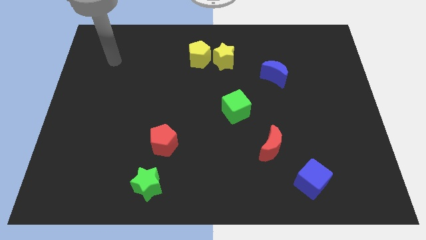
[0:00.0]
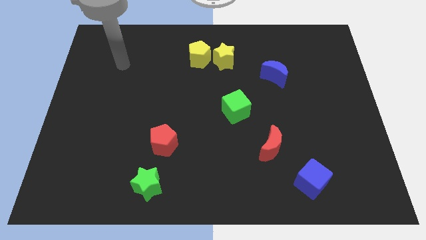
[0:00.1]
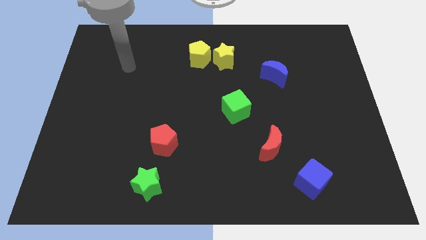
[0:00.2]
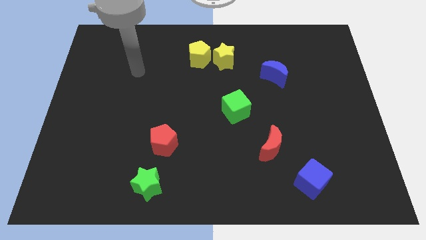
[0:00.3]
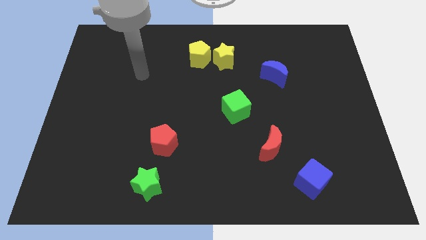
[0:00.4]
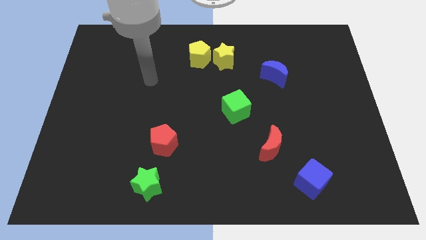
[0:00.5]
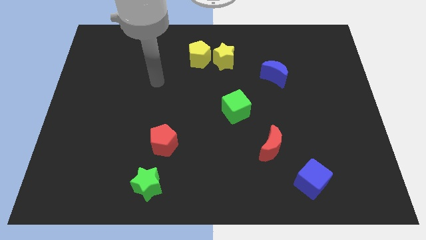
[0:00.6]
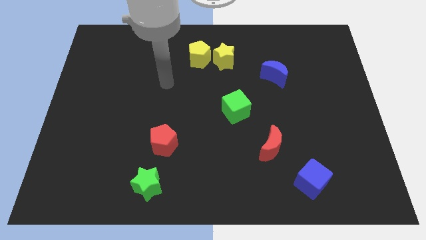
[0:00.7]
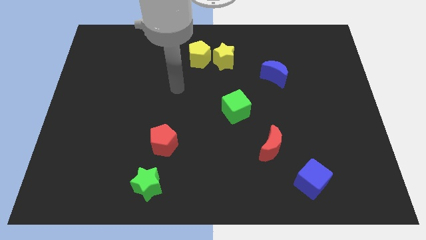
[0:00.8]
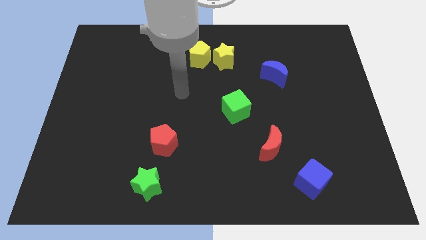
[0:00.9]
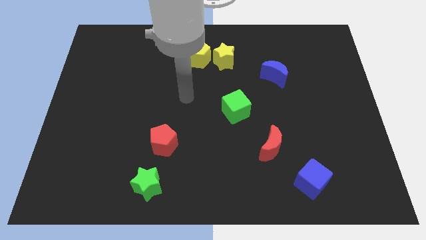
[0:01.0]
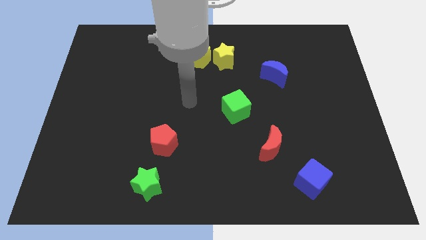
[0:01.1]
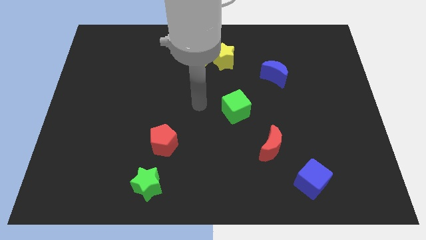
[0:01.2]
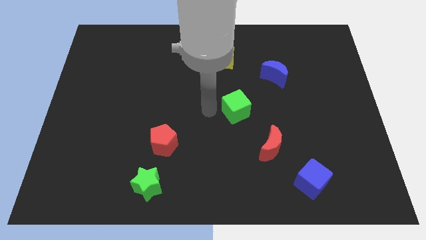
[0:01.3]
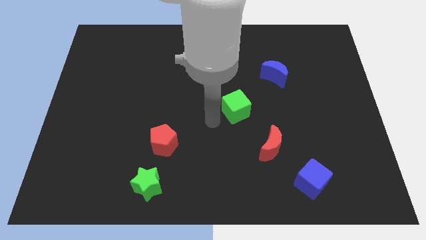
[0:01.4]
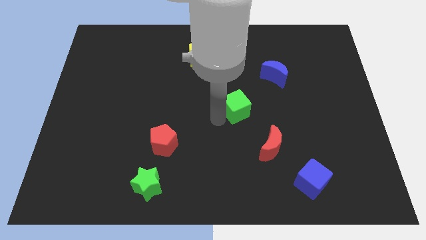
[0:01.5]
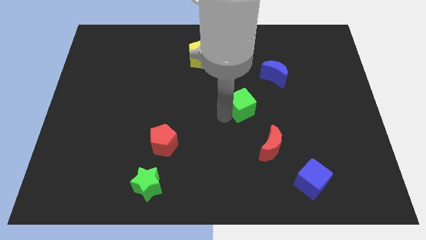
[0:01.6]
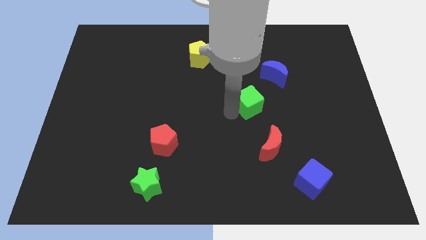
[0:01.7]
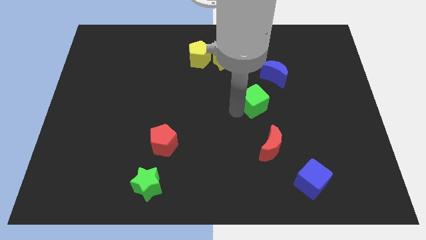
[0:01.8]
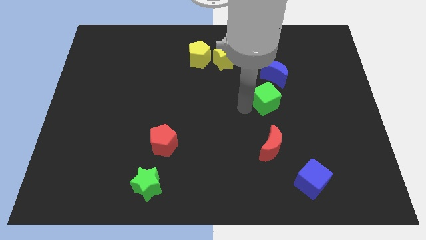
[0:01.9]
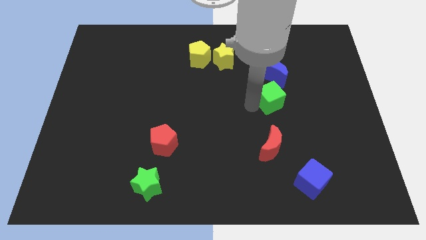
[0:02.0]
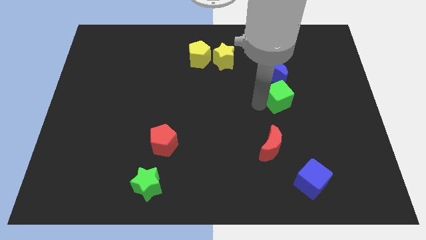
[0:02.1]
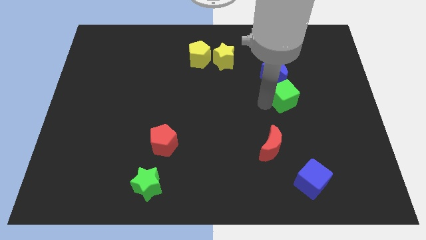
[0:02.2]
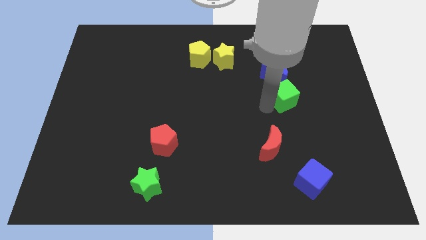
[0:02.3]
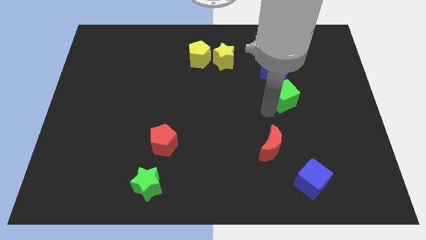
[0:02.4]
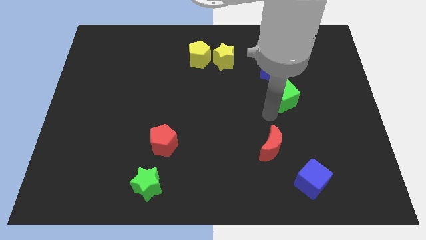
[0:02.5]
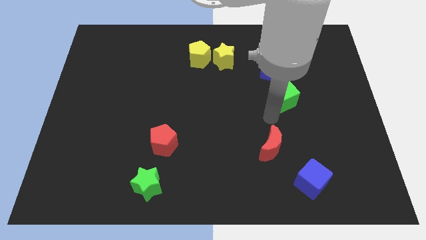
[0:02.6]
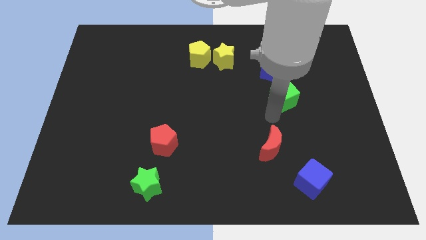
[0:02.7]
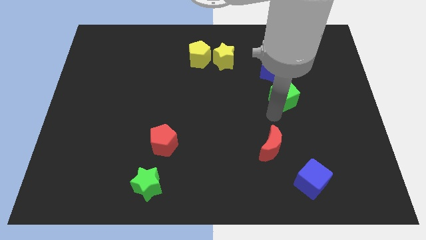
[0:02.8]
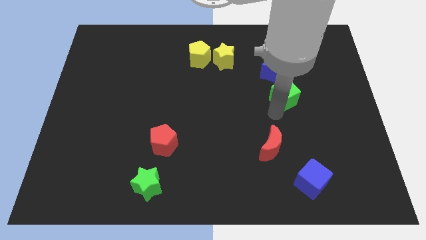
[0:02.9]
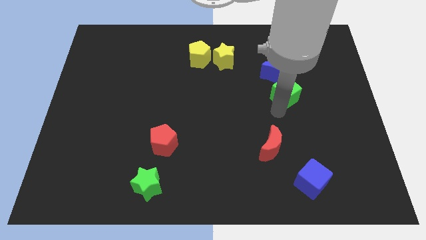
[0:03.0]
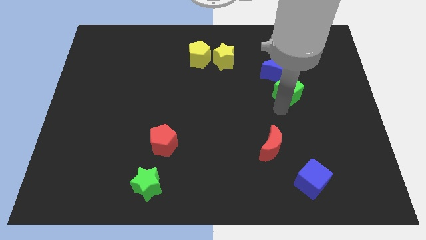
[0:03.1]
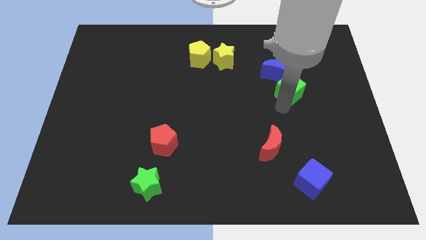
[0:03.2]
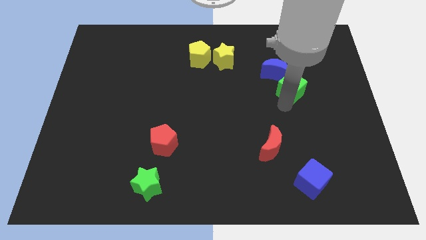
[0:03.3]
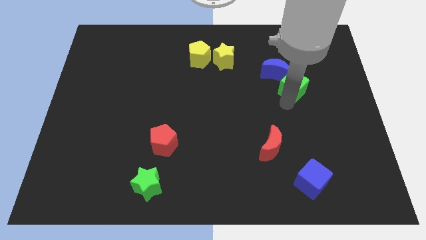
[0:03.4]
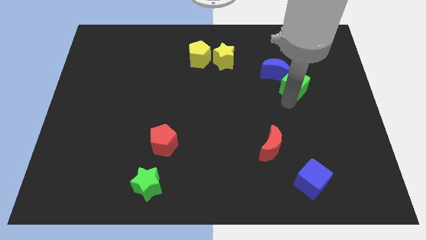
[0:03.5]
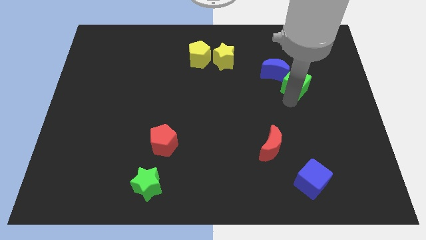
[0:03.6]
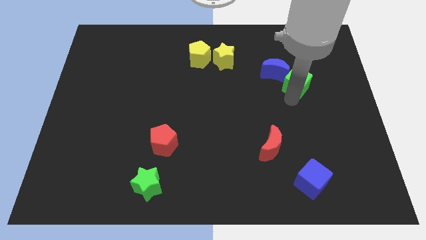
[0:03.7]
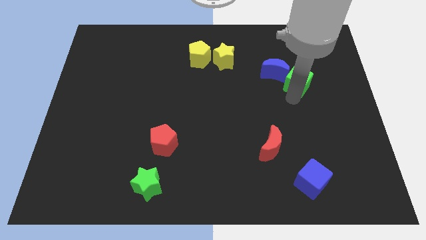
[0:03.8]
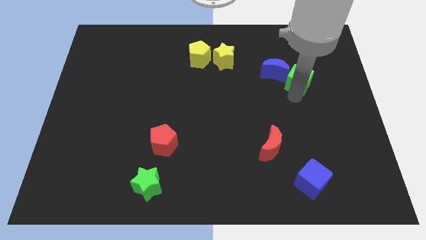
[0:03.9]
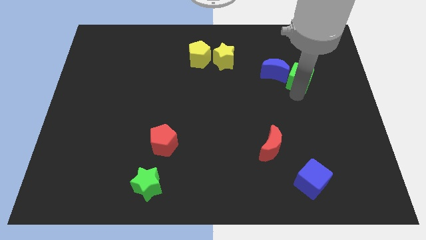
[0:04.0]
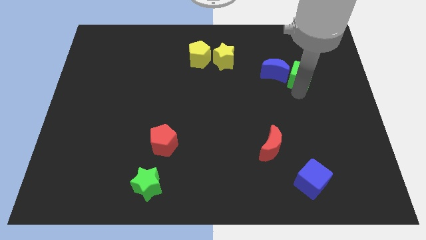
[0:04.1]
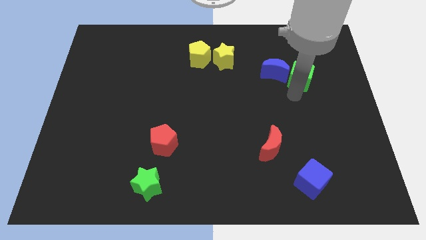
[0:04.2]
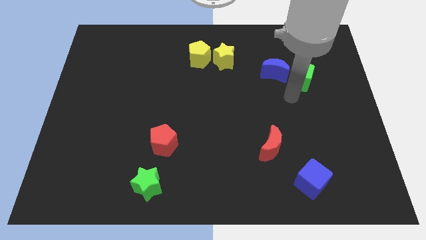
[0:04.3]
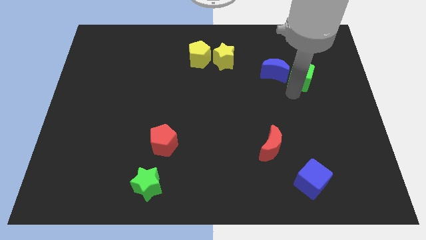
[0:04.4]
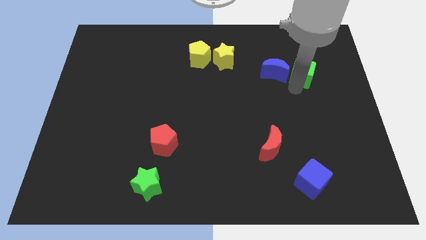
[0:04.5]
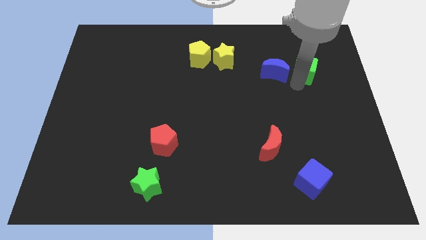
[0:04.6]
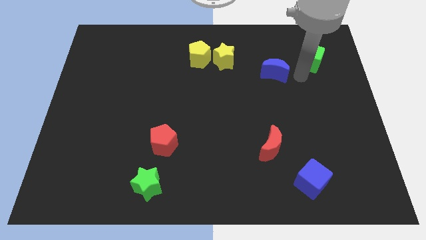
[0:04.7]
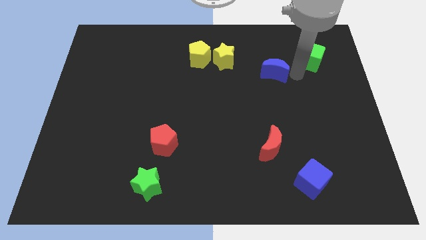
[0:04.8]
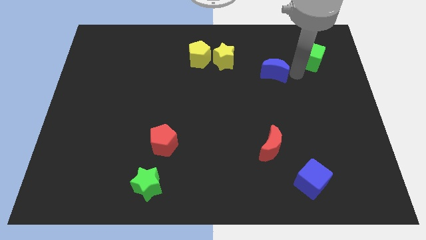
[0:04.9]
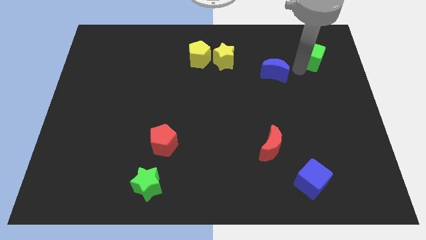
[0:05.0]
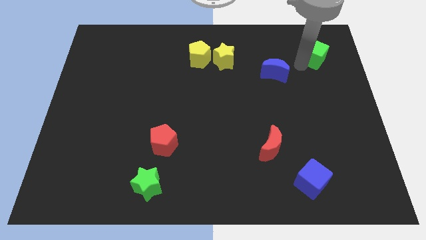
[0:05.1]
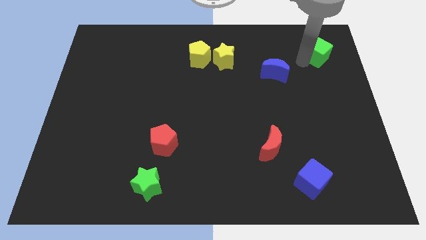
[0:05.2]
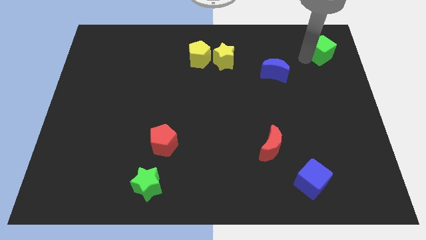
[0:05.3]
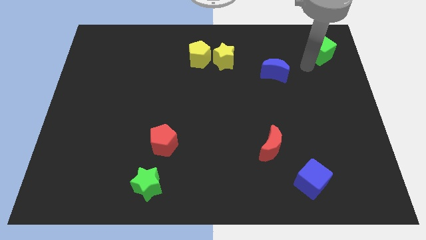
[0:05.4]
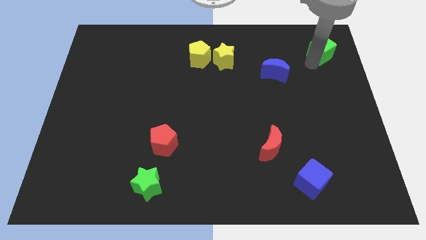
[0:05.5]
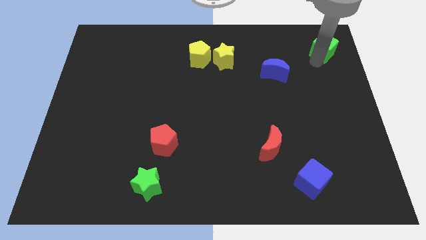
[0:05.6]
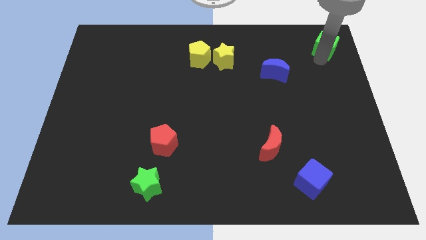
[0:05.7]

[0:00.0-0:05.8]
slide the green cube to the top right corner

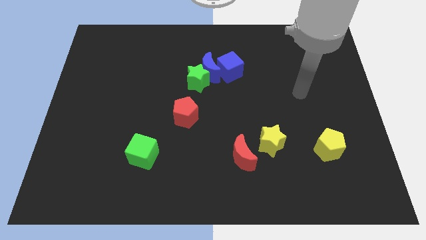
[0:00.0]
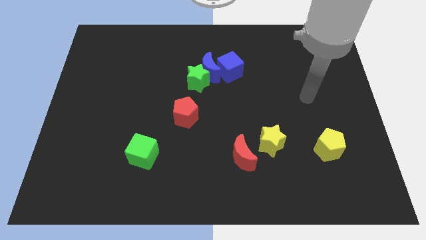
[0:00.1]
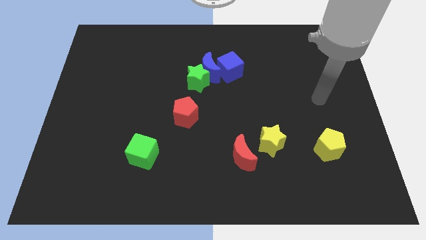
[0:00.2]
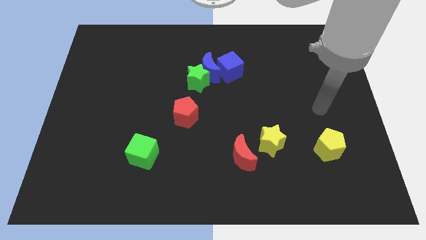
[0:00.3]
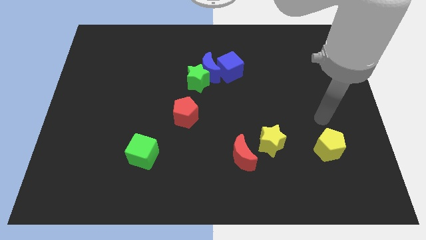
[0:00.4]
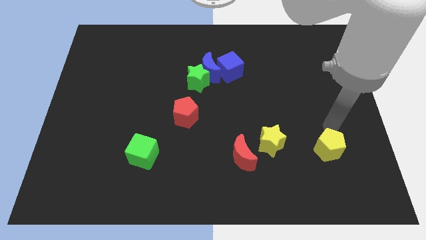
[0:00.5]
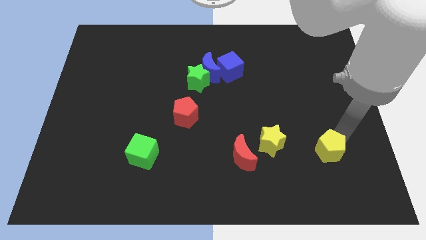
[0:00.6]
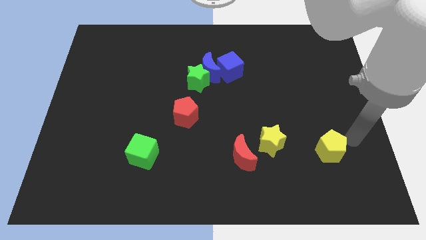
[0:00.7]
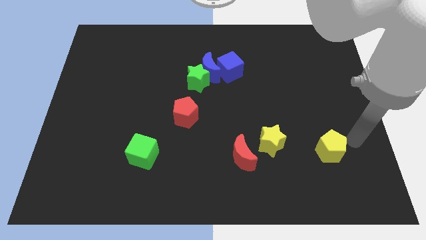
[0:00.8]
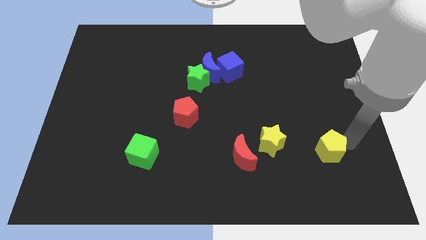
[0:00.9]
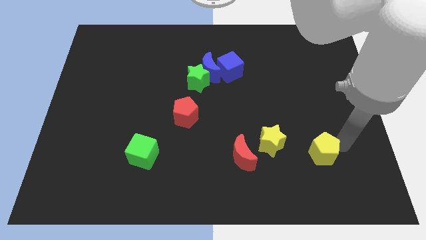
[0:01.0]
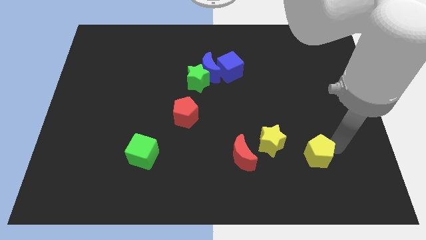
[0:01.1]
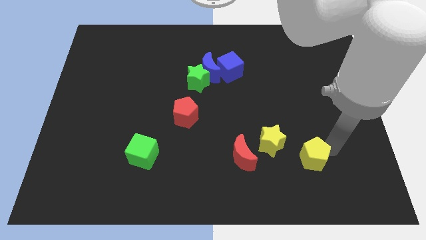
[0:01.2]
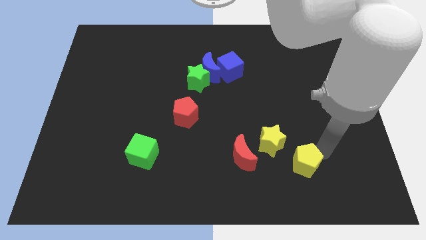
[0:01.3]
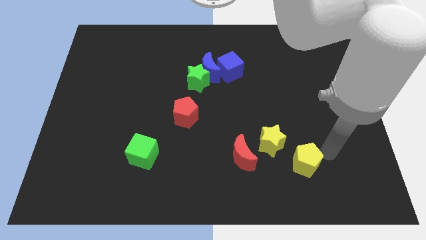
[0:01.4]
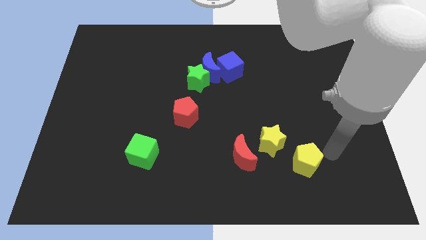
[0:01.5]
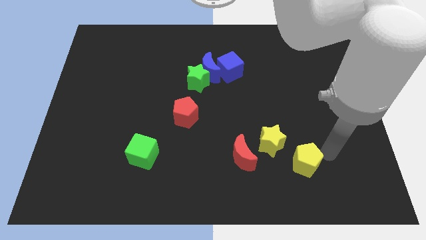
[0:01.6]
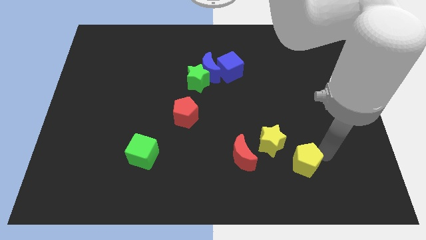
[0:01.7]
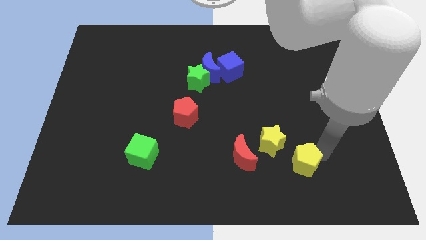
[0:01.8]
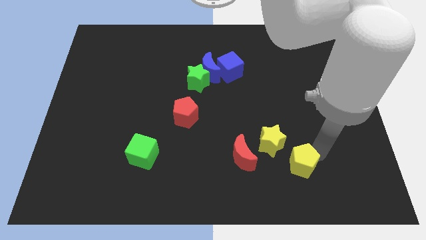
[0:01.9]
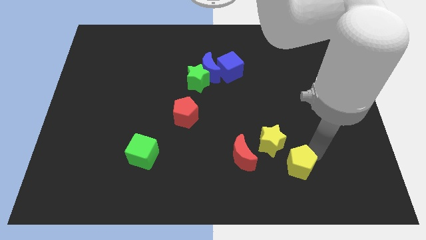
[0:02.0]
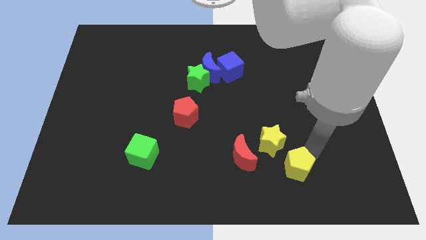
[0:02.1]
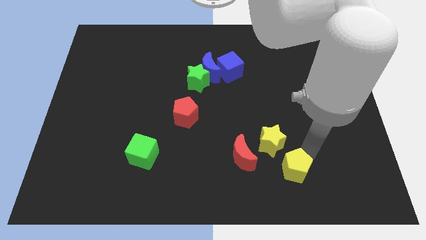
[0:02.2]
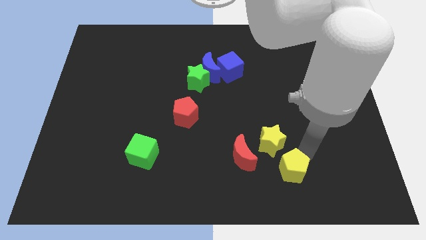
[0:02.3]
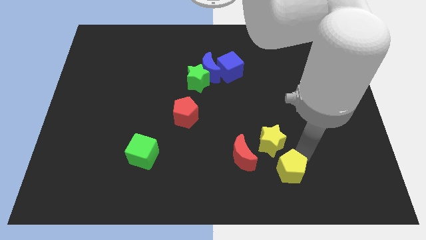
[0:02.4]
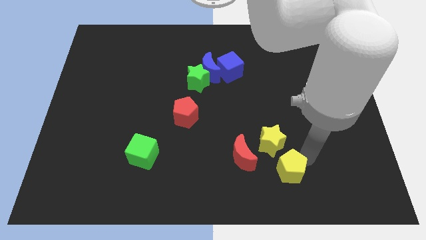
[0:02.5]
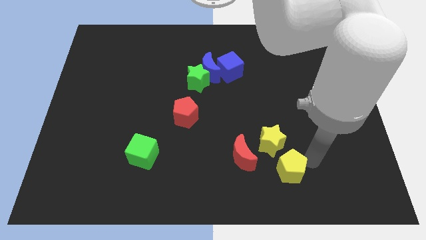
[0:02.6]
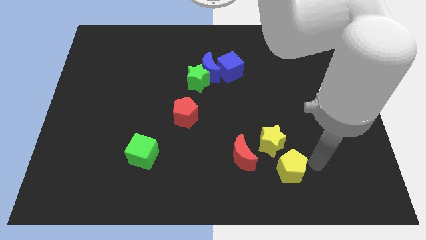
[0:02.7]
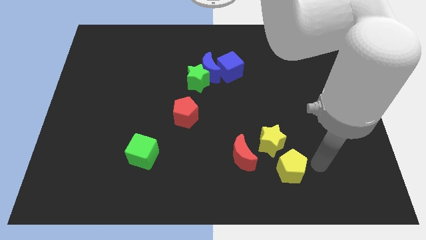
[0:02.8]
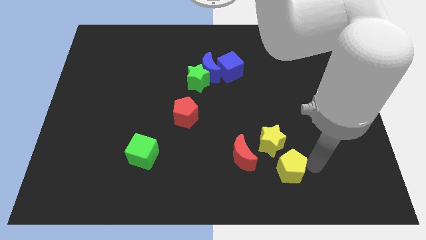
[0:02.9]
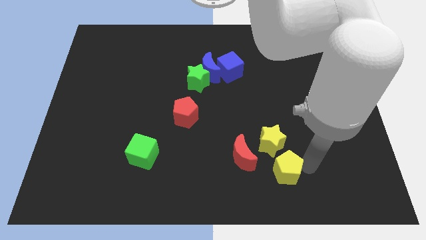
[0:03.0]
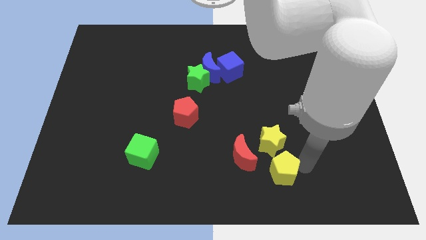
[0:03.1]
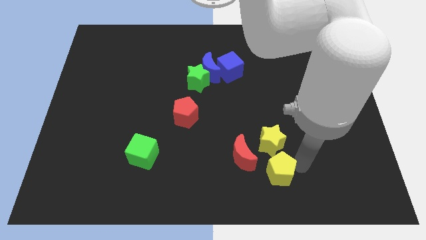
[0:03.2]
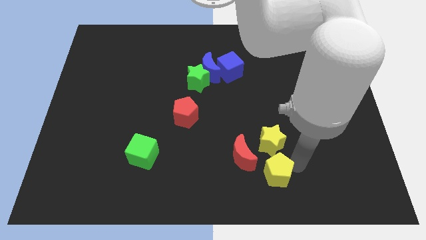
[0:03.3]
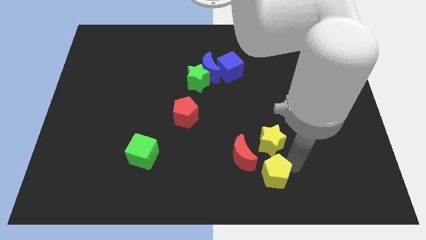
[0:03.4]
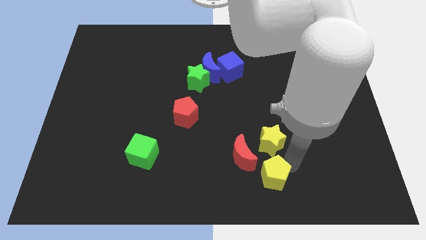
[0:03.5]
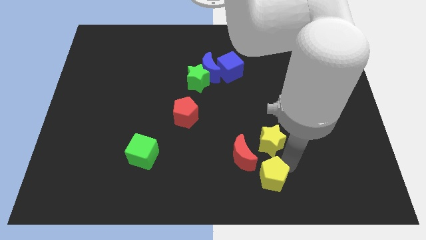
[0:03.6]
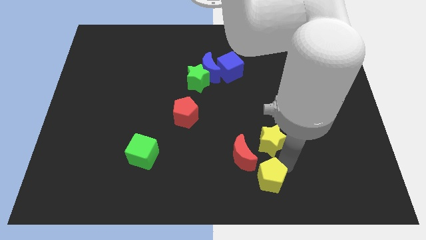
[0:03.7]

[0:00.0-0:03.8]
push the yellow pentagon to the bottom
